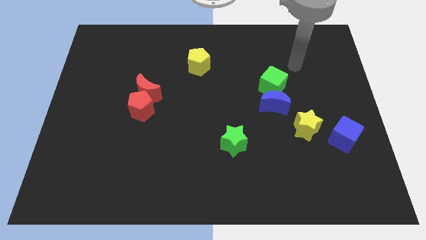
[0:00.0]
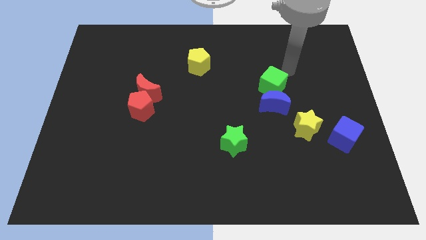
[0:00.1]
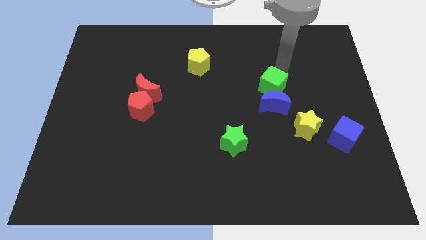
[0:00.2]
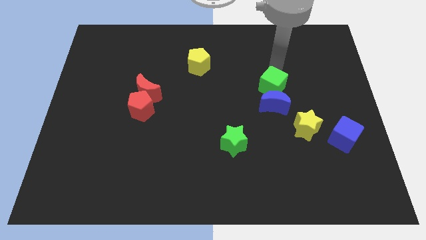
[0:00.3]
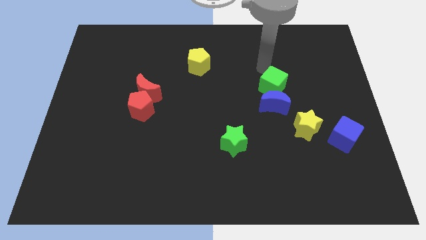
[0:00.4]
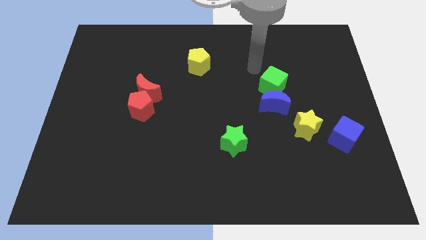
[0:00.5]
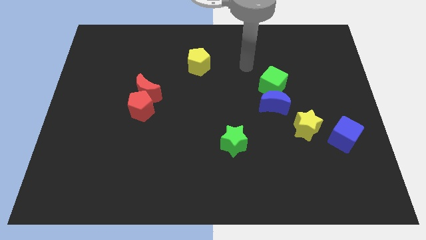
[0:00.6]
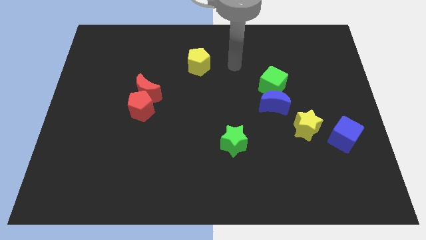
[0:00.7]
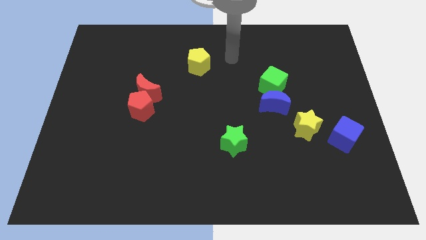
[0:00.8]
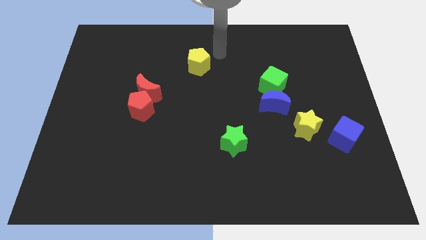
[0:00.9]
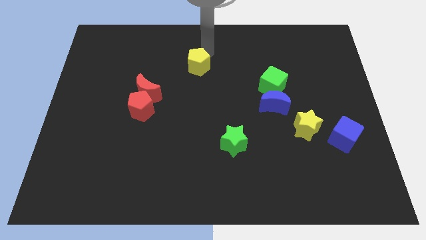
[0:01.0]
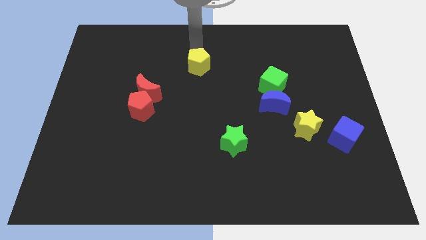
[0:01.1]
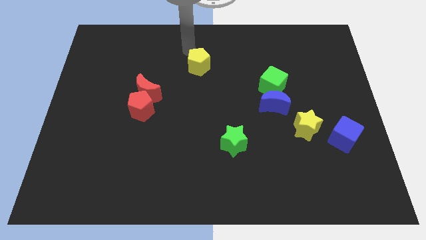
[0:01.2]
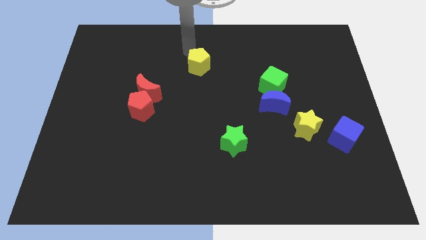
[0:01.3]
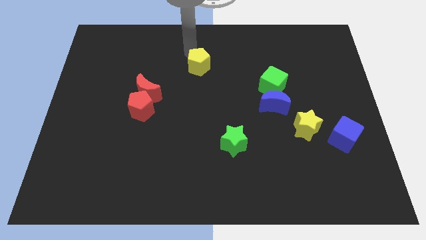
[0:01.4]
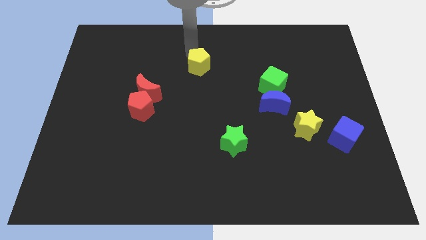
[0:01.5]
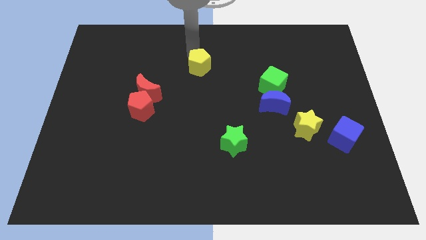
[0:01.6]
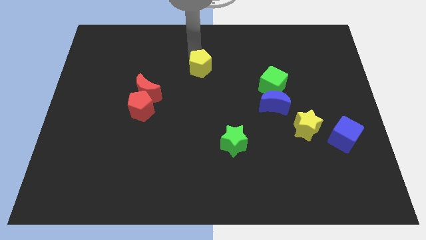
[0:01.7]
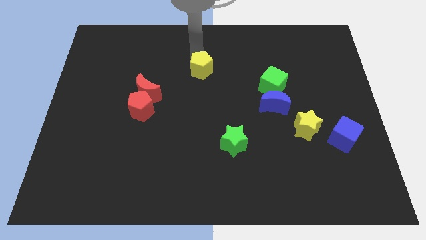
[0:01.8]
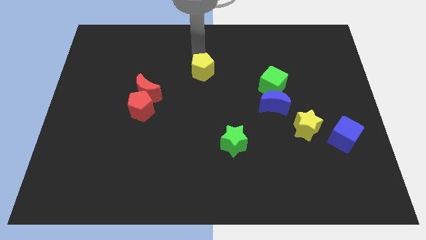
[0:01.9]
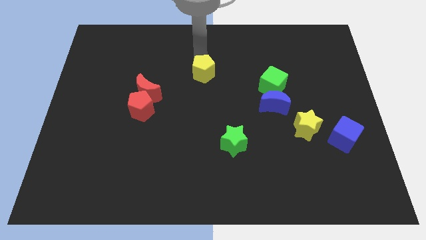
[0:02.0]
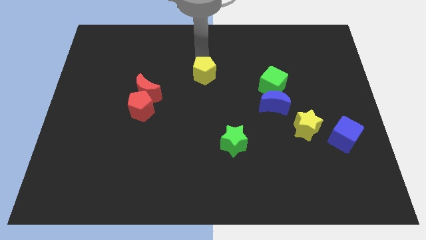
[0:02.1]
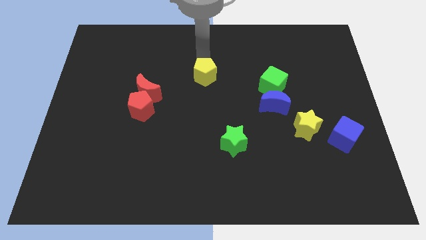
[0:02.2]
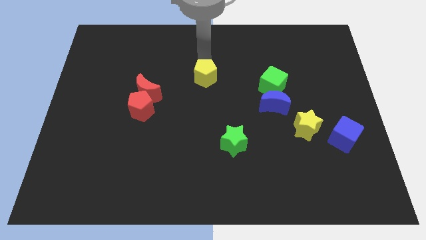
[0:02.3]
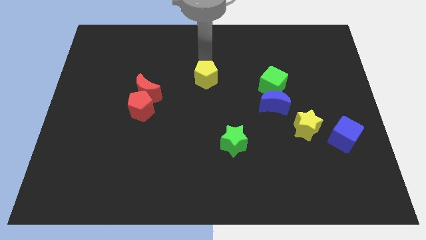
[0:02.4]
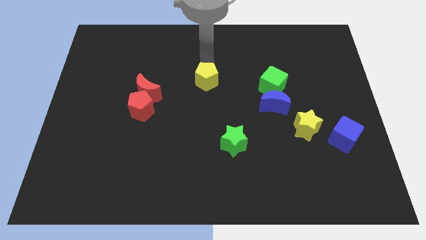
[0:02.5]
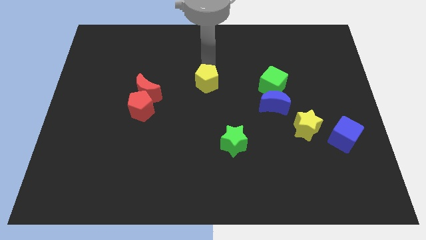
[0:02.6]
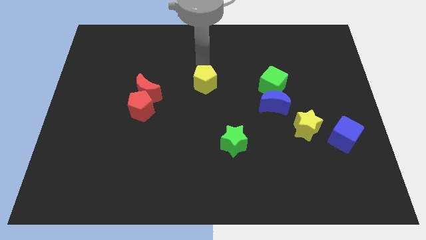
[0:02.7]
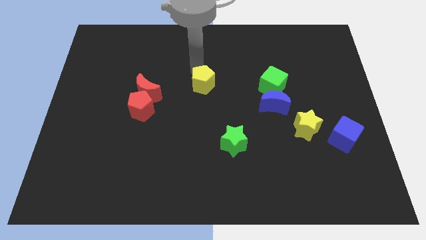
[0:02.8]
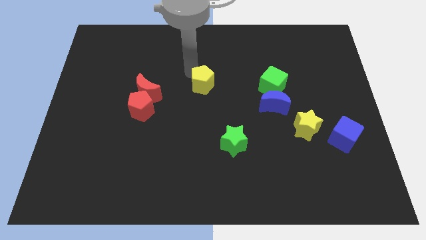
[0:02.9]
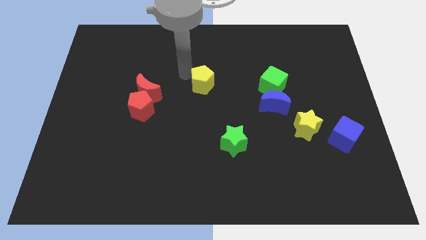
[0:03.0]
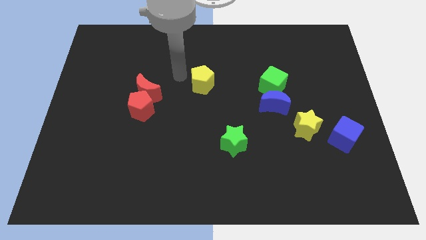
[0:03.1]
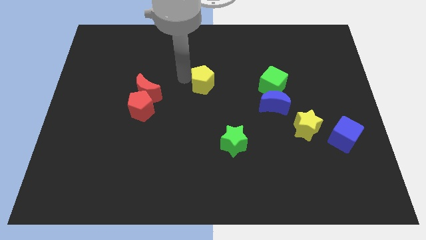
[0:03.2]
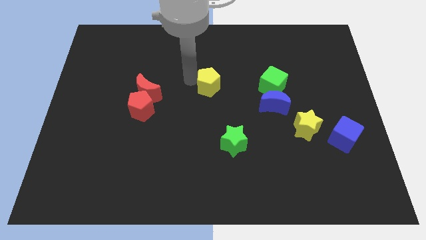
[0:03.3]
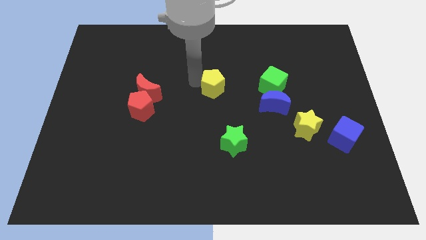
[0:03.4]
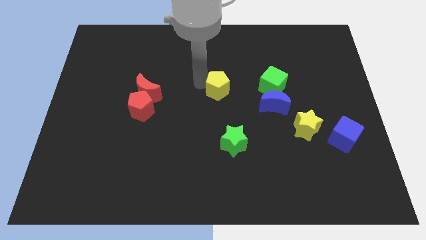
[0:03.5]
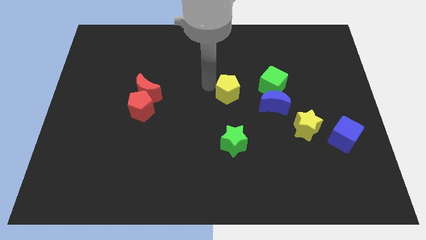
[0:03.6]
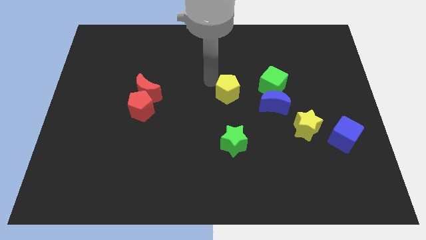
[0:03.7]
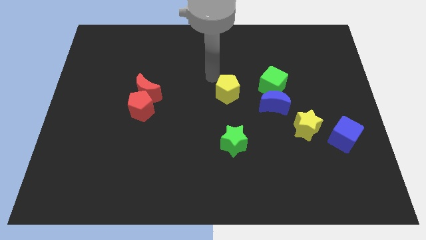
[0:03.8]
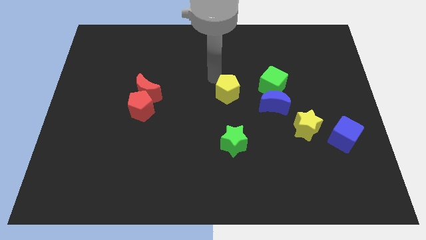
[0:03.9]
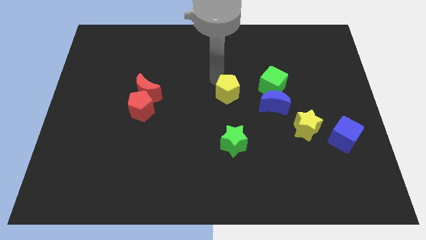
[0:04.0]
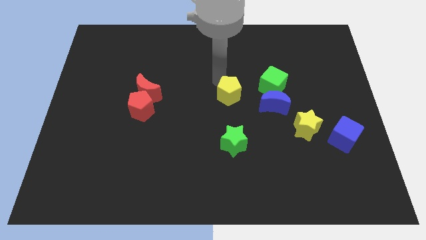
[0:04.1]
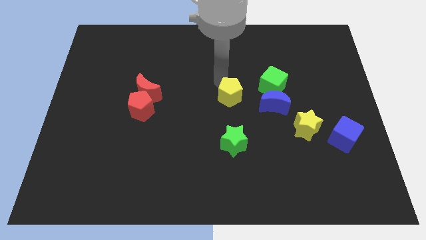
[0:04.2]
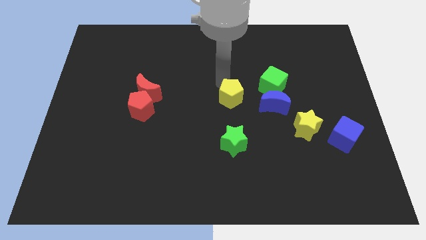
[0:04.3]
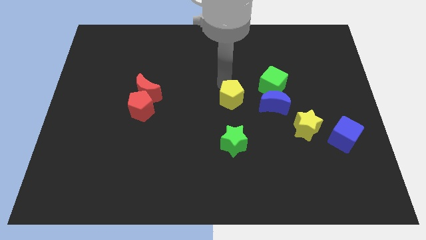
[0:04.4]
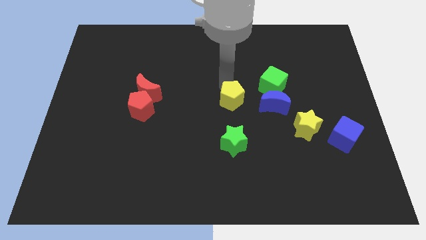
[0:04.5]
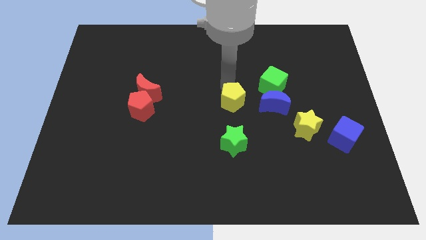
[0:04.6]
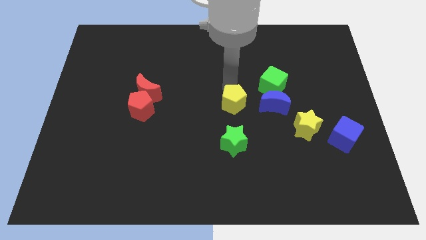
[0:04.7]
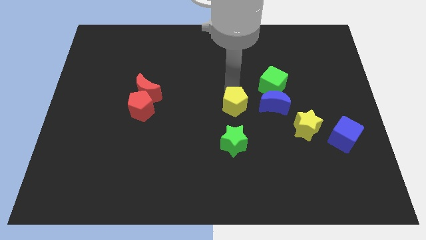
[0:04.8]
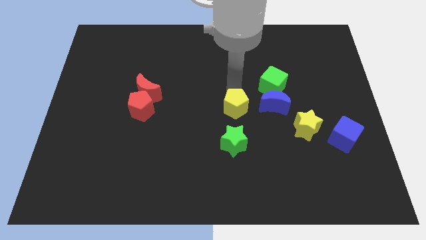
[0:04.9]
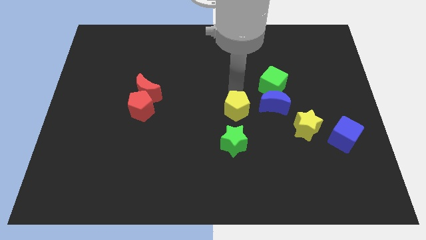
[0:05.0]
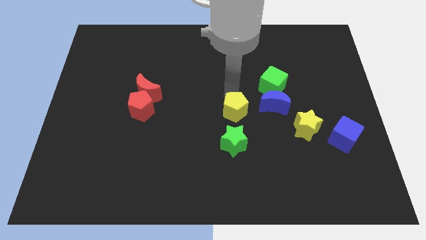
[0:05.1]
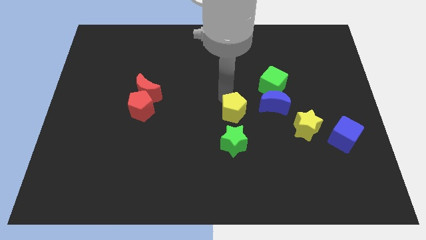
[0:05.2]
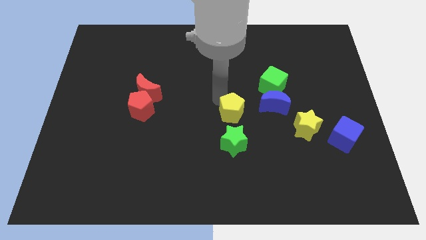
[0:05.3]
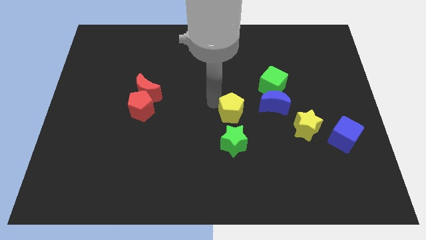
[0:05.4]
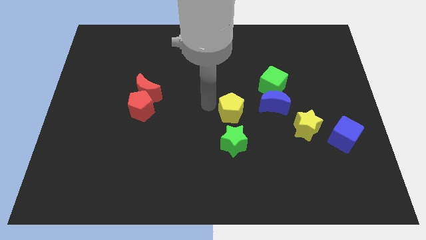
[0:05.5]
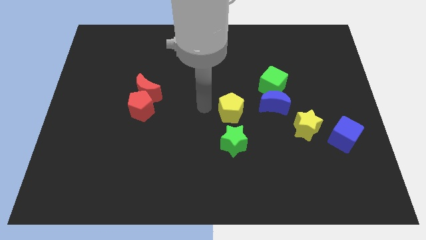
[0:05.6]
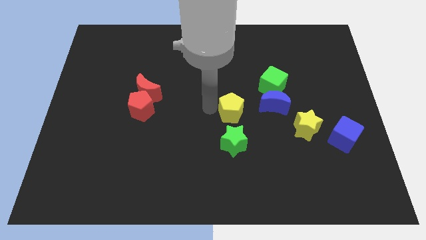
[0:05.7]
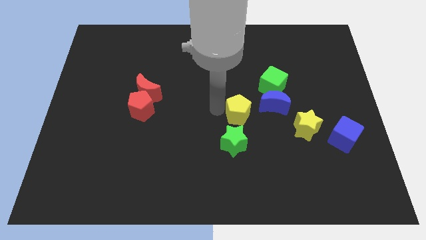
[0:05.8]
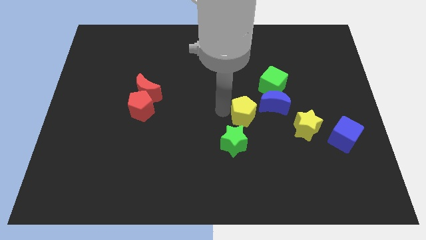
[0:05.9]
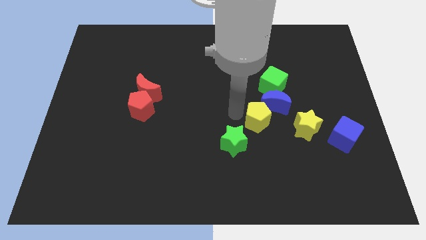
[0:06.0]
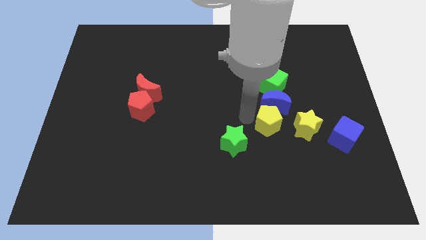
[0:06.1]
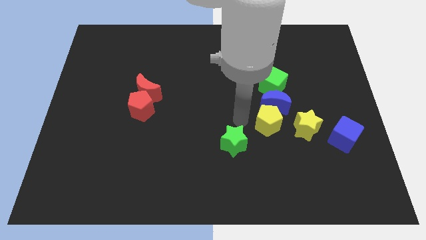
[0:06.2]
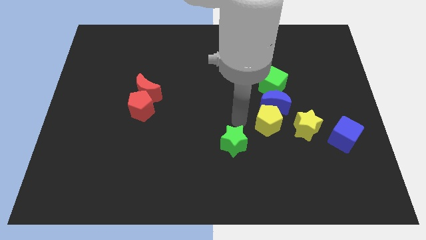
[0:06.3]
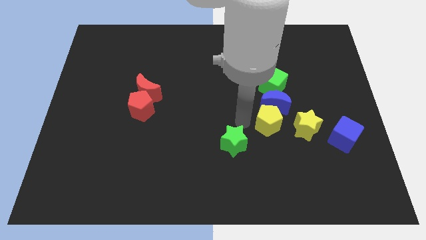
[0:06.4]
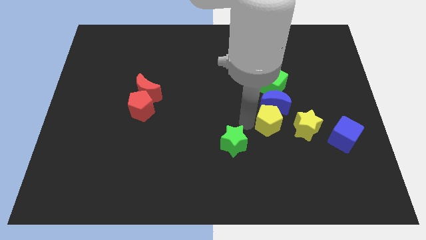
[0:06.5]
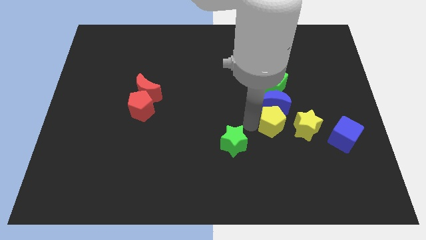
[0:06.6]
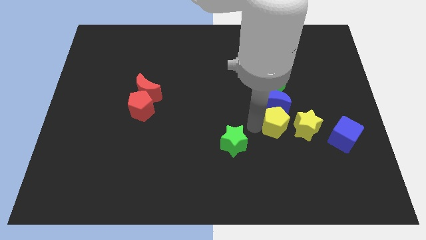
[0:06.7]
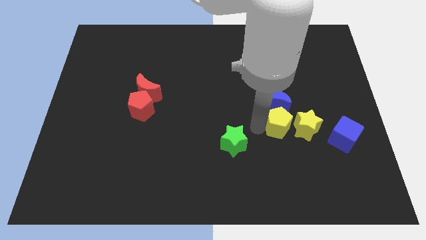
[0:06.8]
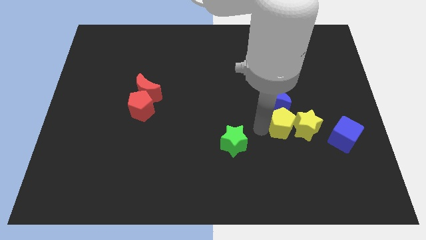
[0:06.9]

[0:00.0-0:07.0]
slide the yellow pentagon next to the yellow star
